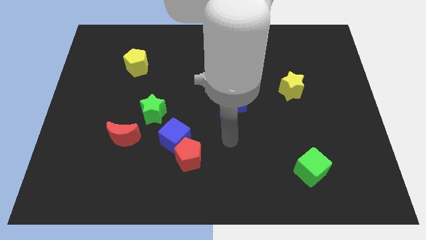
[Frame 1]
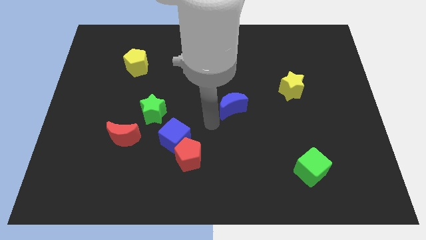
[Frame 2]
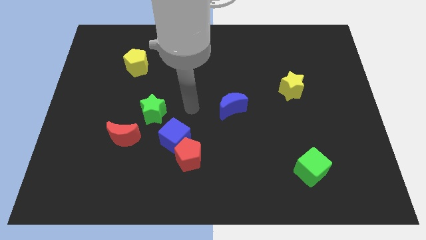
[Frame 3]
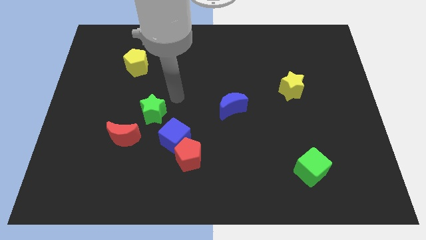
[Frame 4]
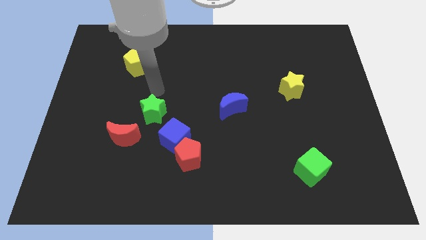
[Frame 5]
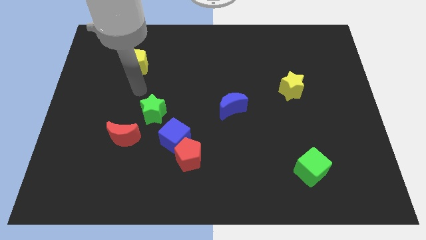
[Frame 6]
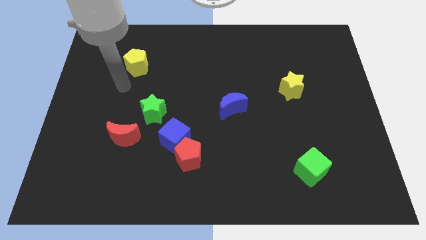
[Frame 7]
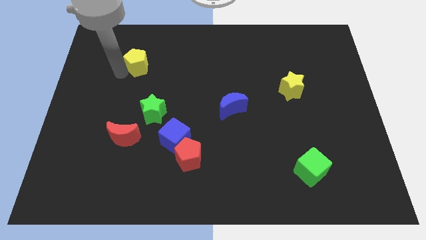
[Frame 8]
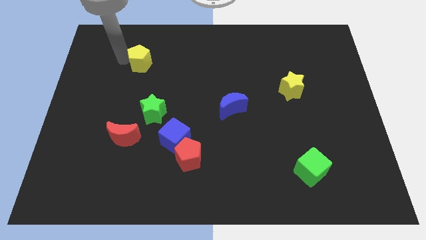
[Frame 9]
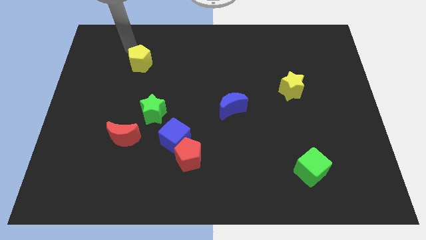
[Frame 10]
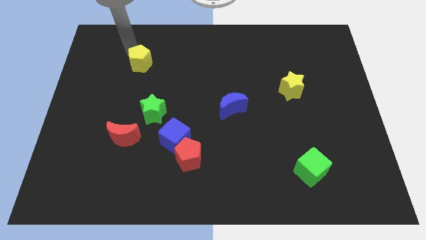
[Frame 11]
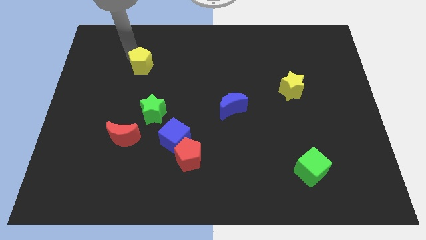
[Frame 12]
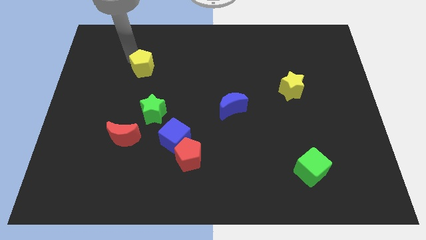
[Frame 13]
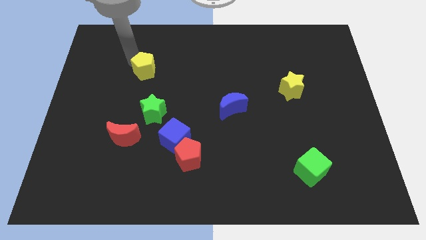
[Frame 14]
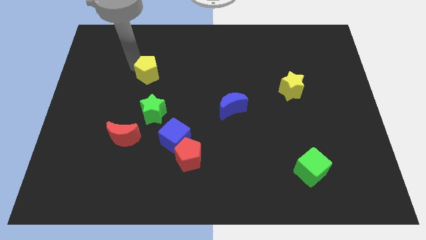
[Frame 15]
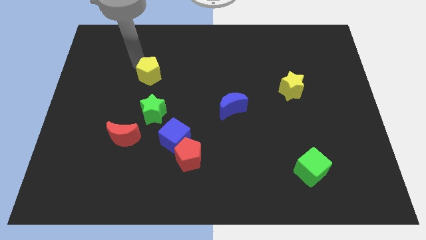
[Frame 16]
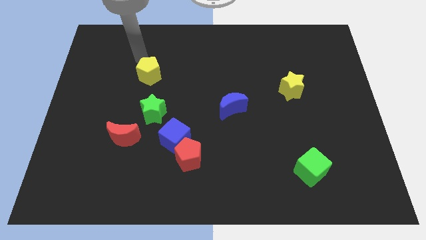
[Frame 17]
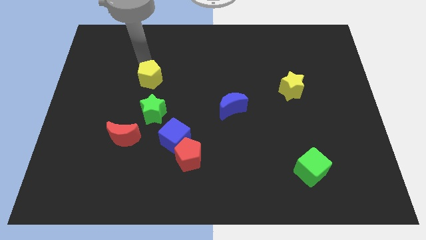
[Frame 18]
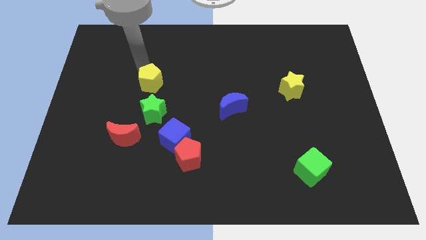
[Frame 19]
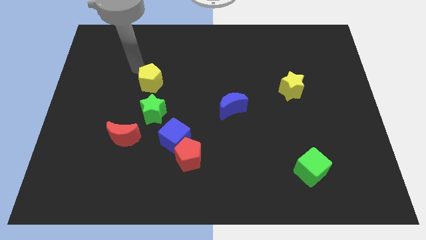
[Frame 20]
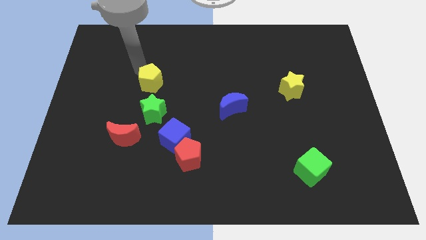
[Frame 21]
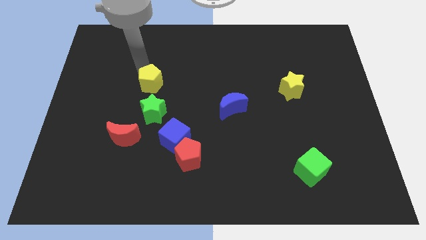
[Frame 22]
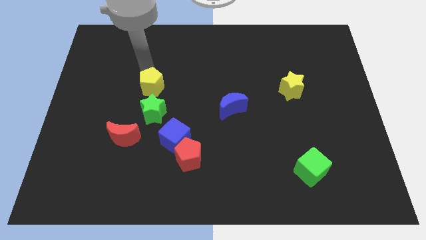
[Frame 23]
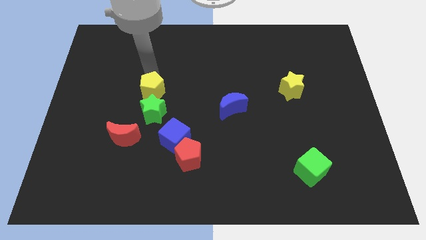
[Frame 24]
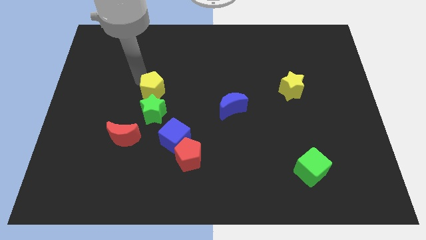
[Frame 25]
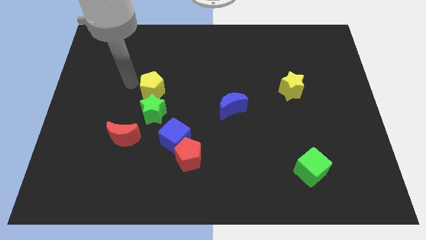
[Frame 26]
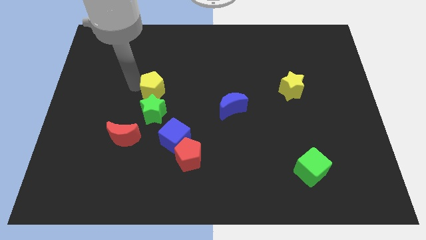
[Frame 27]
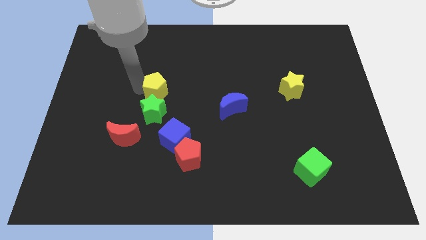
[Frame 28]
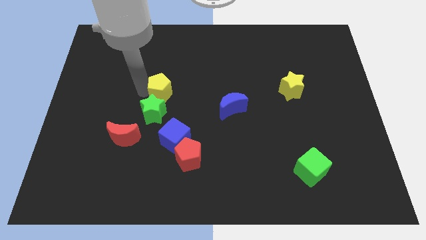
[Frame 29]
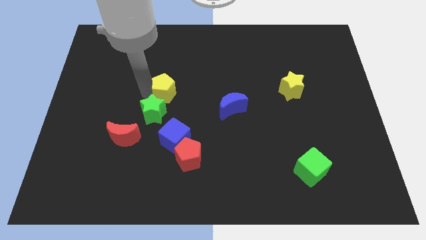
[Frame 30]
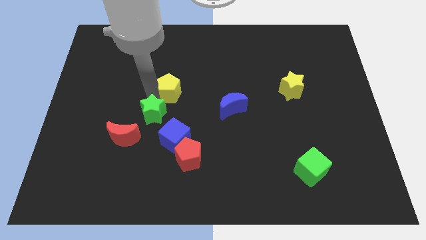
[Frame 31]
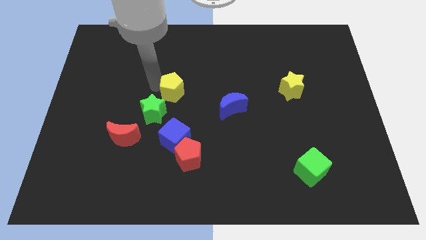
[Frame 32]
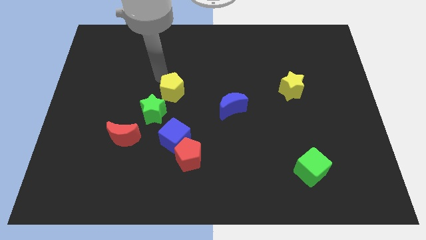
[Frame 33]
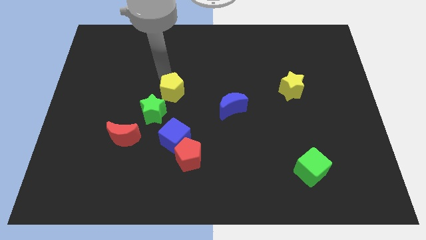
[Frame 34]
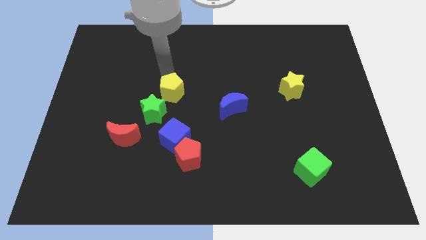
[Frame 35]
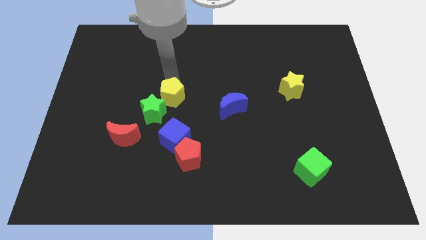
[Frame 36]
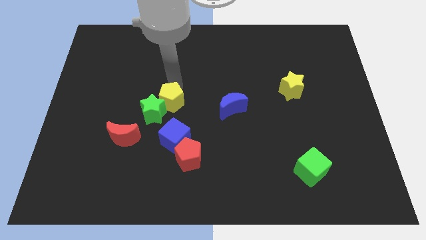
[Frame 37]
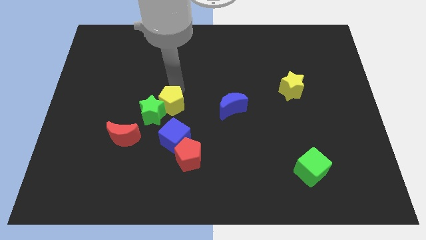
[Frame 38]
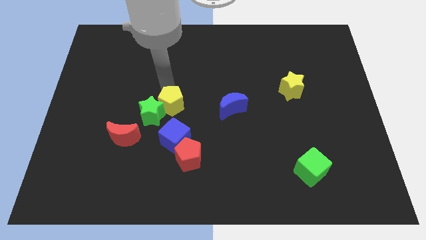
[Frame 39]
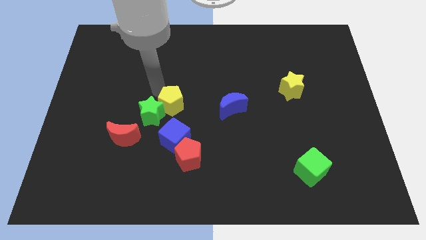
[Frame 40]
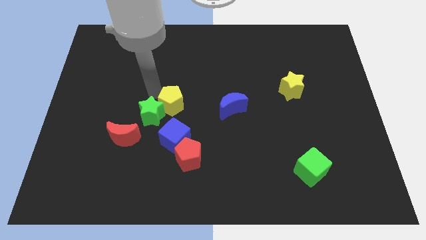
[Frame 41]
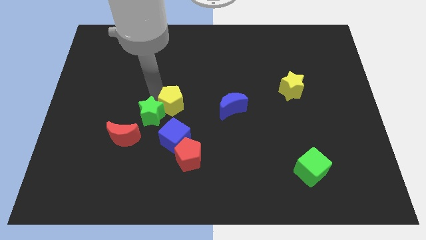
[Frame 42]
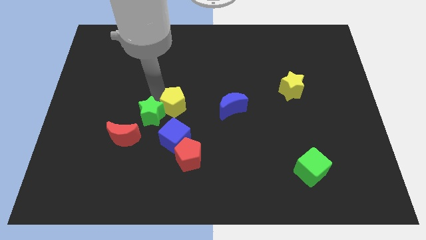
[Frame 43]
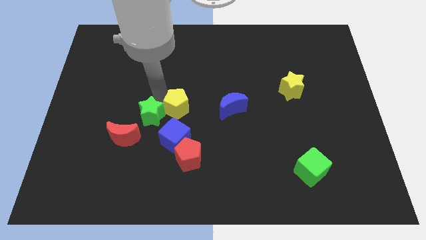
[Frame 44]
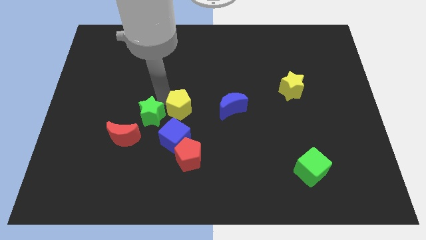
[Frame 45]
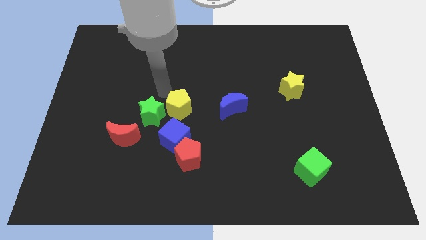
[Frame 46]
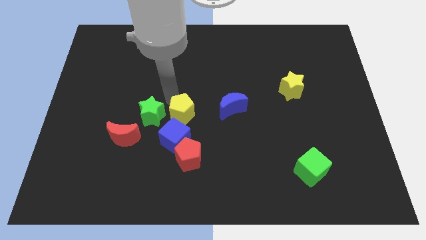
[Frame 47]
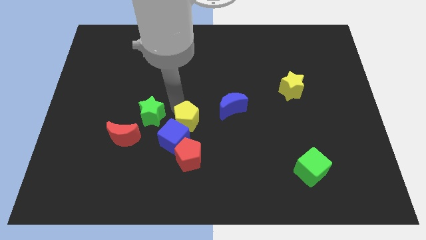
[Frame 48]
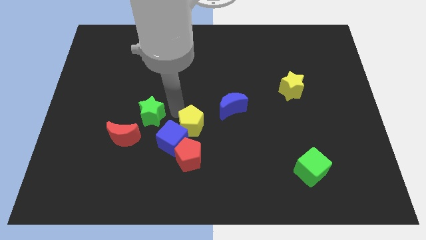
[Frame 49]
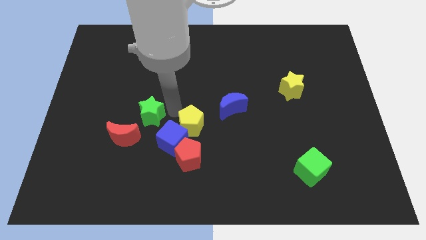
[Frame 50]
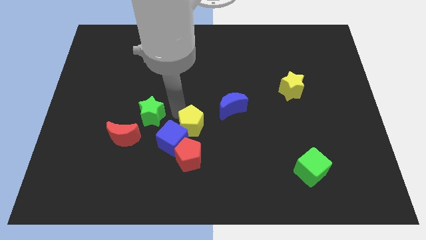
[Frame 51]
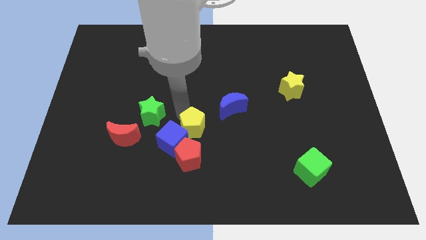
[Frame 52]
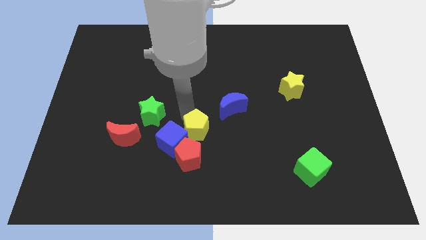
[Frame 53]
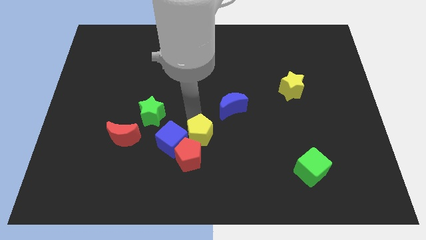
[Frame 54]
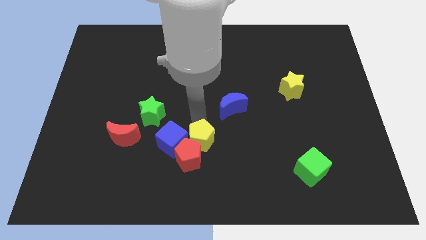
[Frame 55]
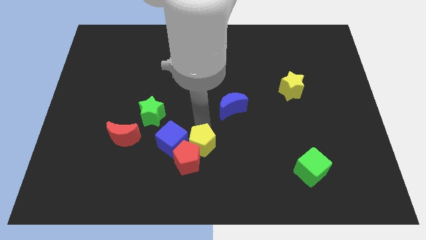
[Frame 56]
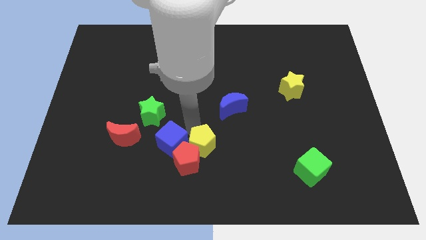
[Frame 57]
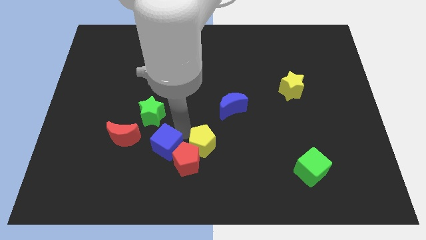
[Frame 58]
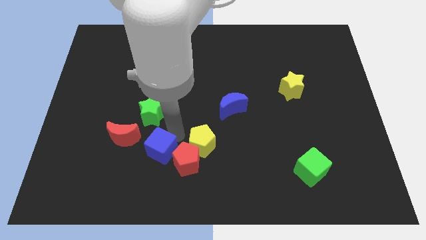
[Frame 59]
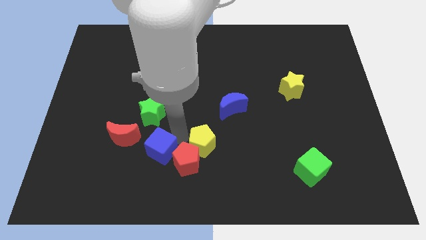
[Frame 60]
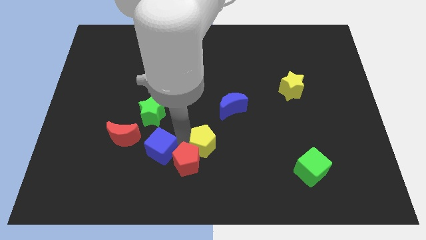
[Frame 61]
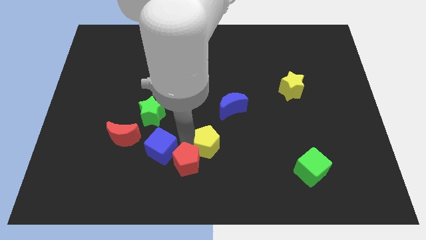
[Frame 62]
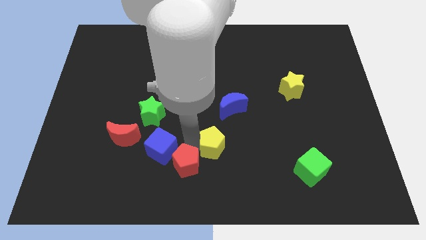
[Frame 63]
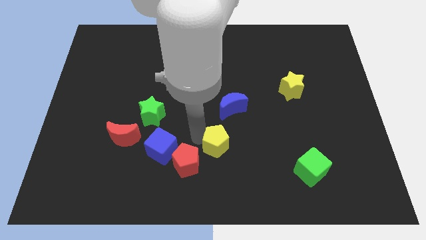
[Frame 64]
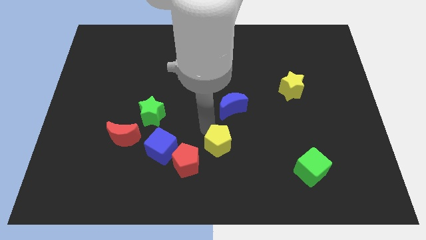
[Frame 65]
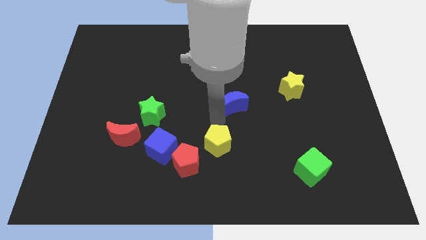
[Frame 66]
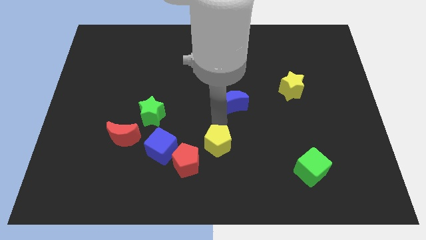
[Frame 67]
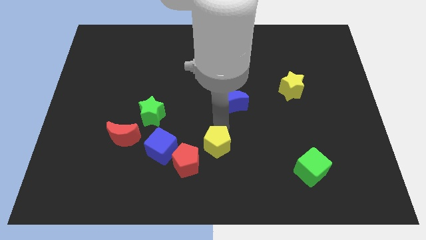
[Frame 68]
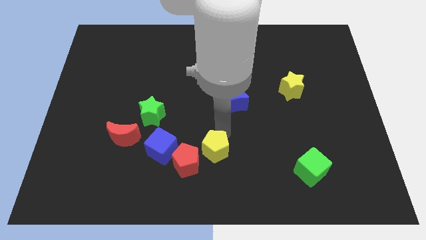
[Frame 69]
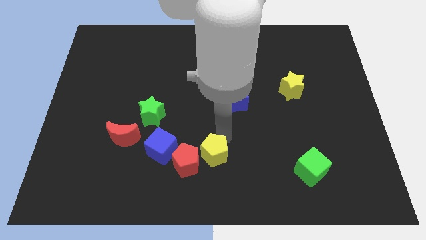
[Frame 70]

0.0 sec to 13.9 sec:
put the yellow pentagon to the bottom side
